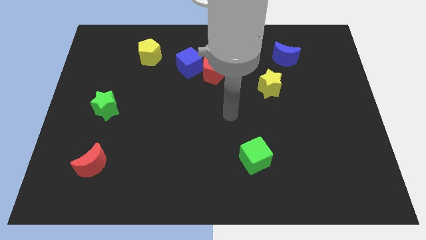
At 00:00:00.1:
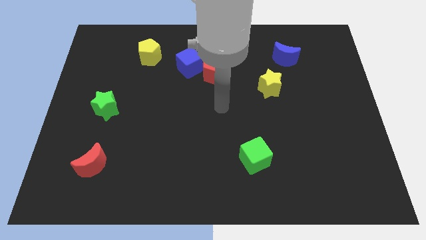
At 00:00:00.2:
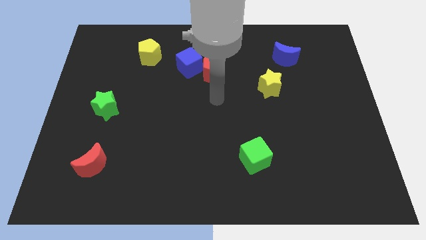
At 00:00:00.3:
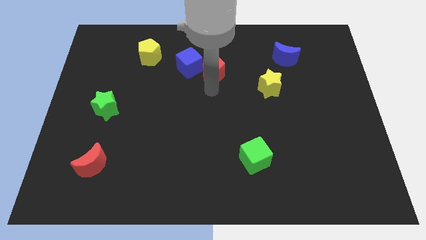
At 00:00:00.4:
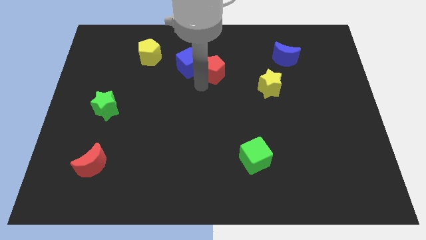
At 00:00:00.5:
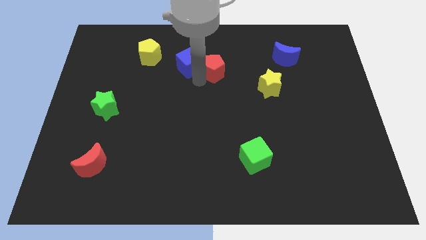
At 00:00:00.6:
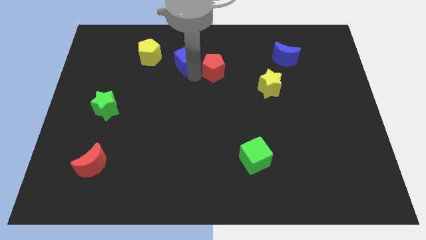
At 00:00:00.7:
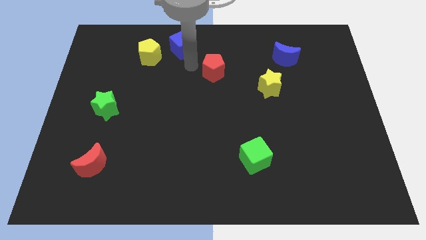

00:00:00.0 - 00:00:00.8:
separate the red pentagon from the blue cube

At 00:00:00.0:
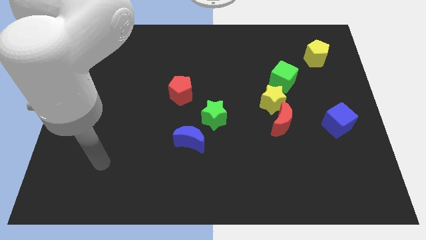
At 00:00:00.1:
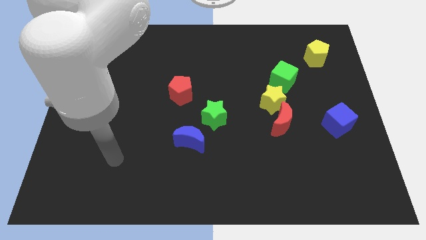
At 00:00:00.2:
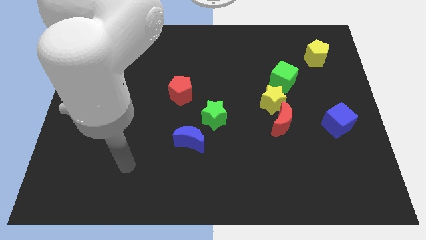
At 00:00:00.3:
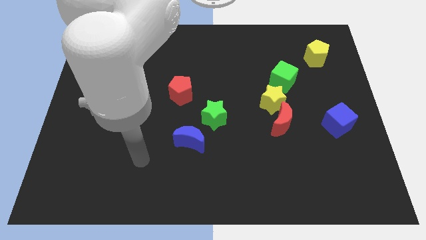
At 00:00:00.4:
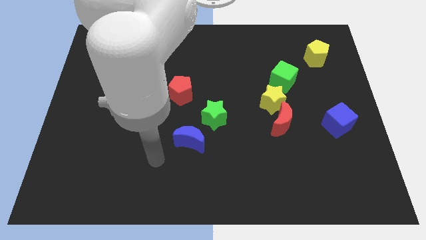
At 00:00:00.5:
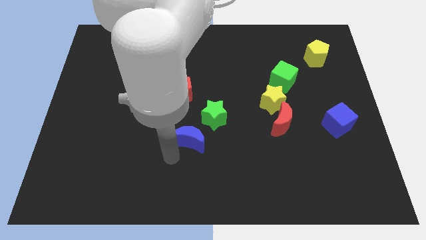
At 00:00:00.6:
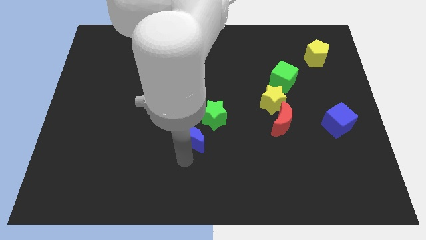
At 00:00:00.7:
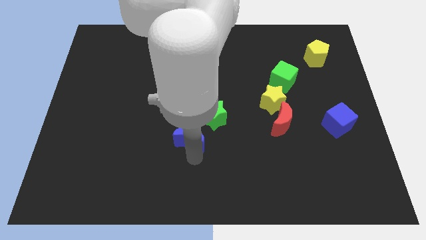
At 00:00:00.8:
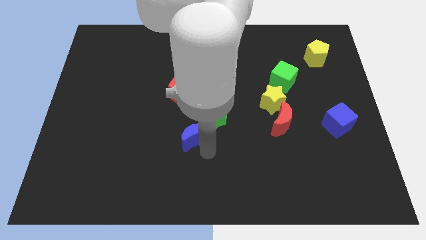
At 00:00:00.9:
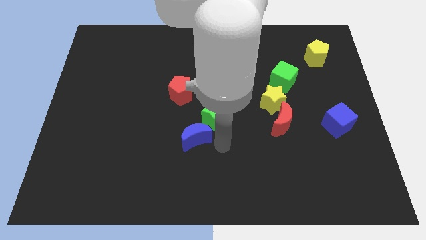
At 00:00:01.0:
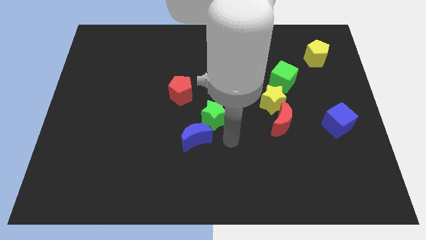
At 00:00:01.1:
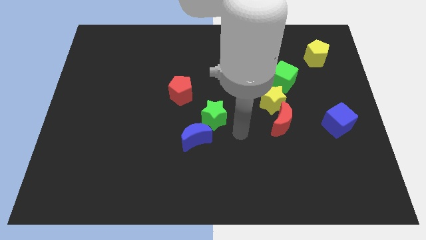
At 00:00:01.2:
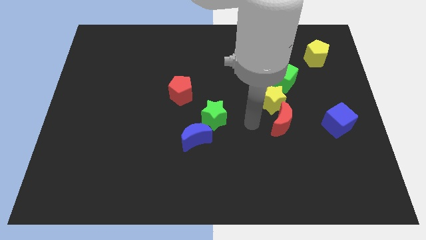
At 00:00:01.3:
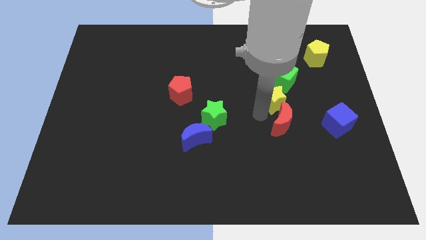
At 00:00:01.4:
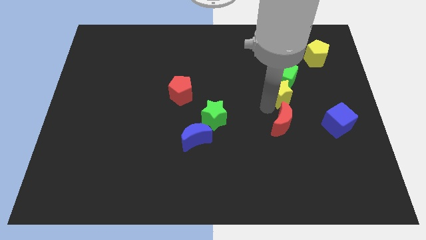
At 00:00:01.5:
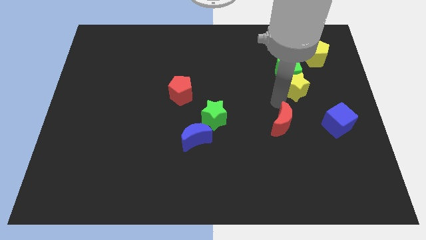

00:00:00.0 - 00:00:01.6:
separate the red moon from the yellow star

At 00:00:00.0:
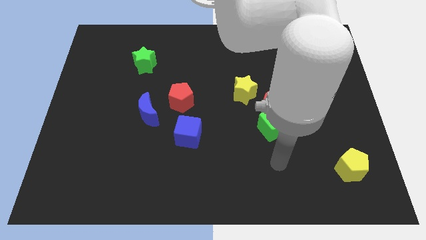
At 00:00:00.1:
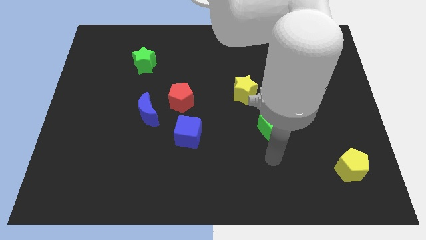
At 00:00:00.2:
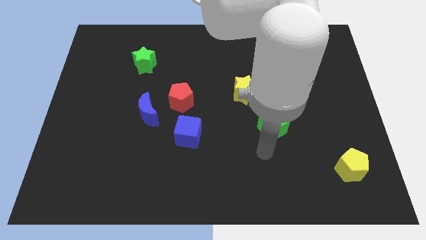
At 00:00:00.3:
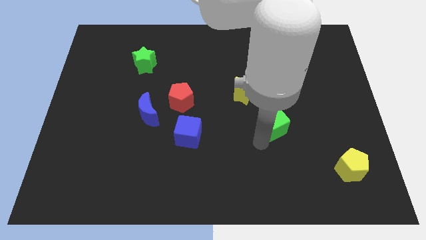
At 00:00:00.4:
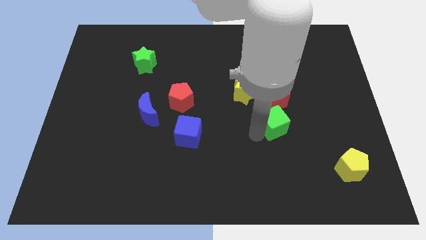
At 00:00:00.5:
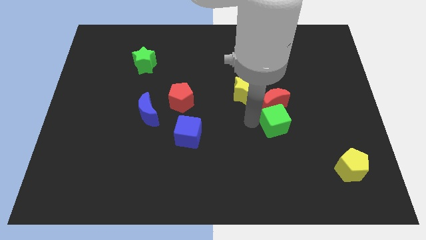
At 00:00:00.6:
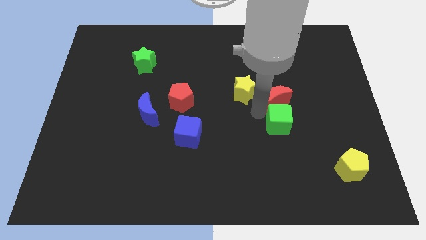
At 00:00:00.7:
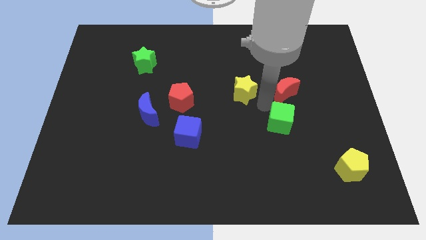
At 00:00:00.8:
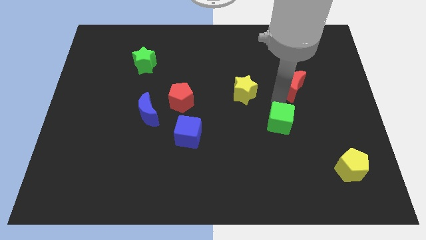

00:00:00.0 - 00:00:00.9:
separate the green cube from the red moon

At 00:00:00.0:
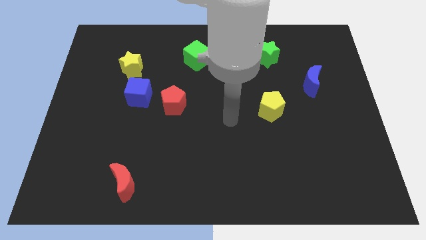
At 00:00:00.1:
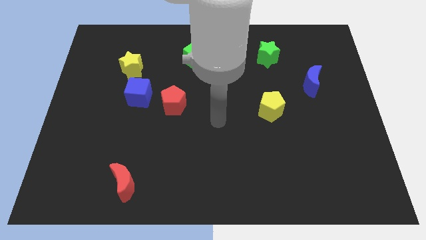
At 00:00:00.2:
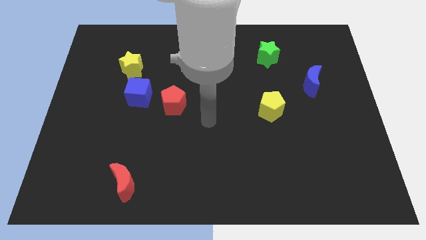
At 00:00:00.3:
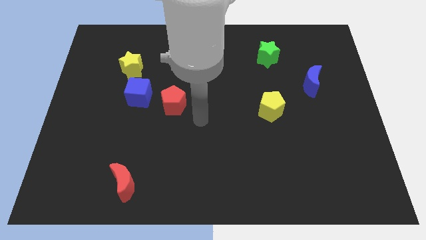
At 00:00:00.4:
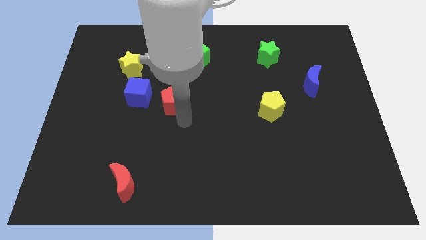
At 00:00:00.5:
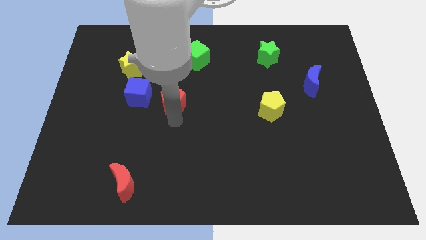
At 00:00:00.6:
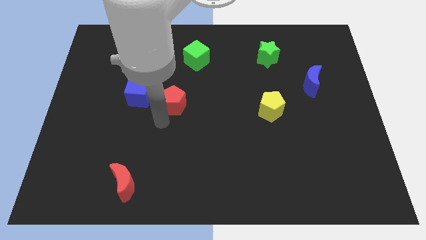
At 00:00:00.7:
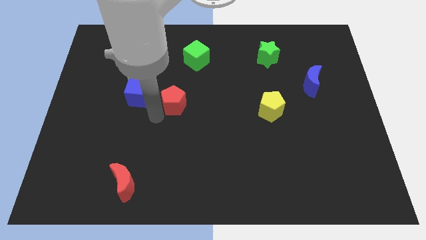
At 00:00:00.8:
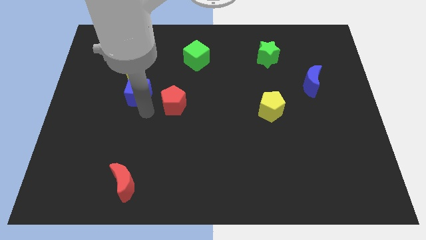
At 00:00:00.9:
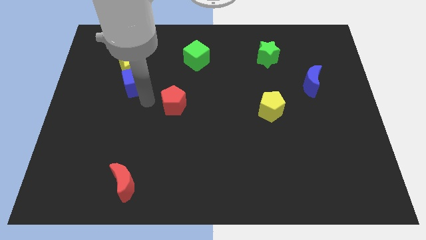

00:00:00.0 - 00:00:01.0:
pull the red pentagon apart from the blue cube

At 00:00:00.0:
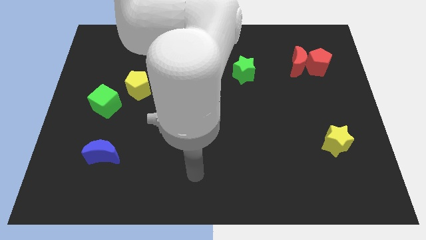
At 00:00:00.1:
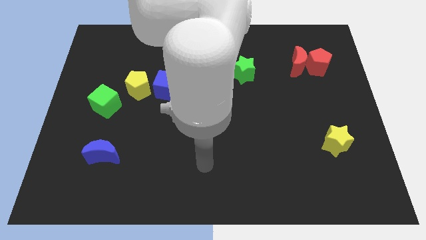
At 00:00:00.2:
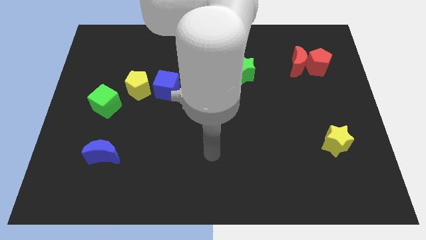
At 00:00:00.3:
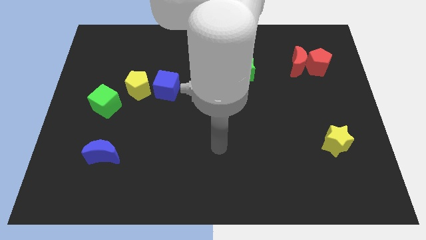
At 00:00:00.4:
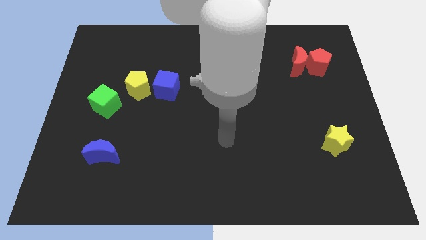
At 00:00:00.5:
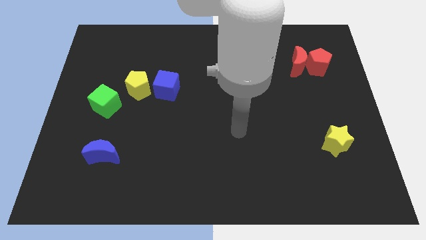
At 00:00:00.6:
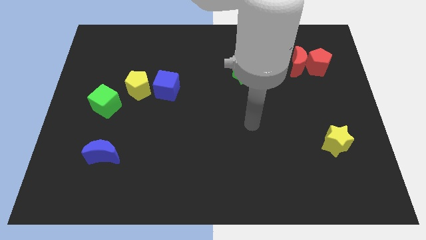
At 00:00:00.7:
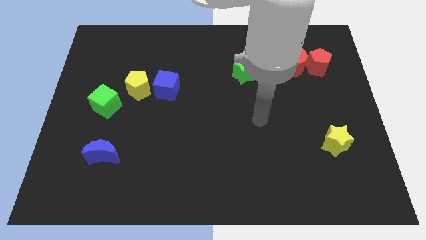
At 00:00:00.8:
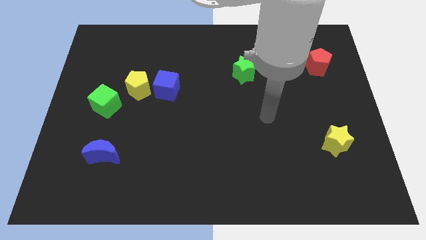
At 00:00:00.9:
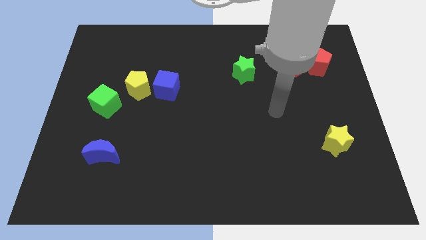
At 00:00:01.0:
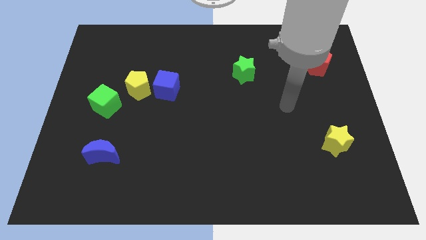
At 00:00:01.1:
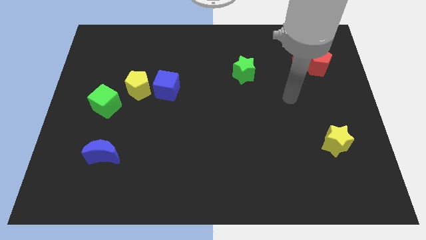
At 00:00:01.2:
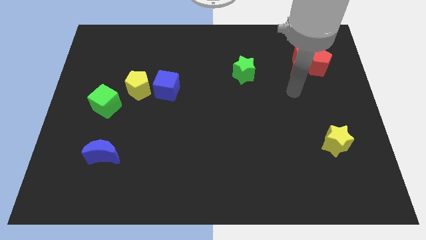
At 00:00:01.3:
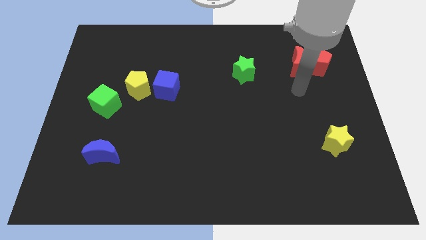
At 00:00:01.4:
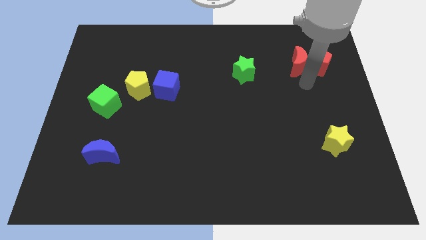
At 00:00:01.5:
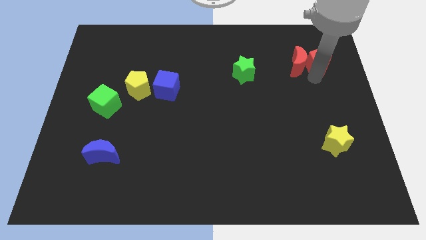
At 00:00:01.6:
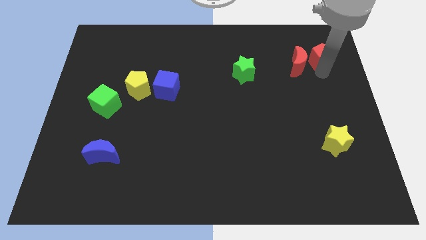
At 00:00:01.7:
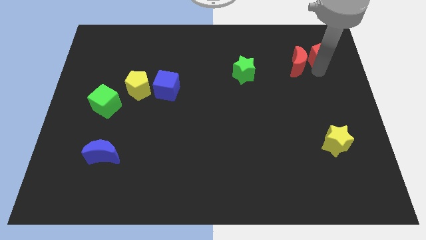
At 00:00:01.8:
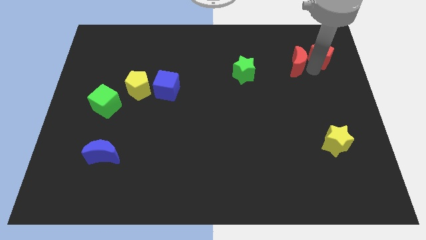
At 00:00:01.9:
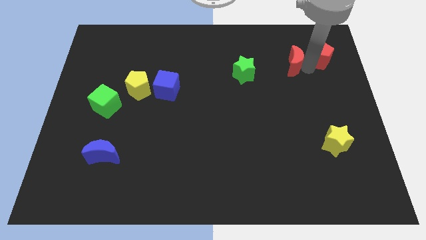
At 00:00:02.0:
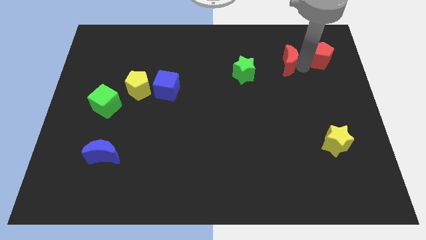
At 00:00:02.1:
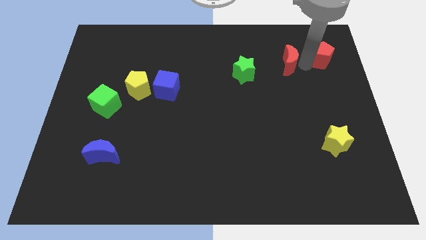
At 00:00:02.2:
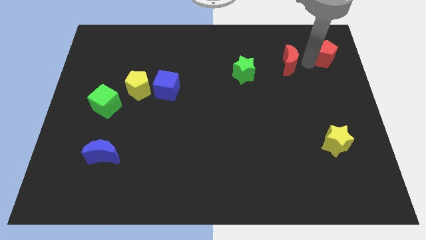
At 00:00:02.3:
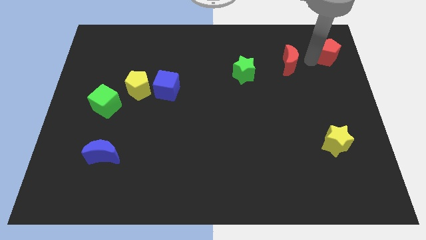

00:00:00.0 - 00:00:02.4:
pull the red moon apart from the red pentagon

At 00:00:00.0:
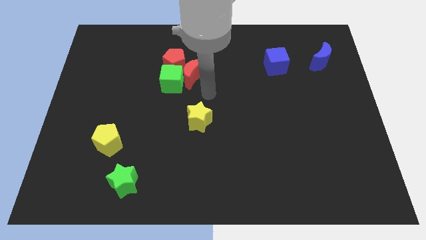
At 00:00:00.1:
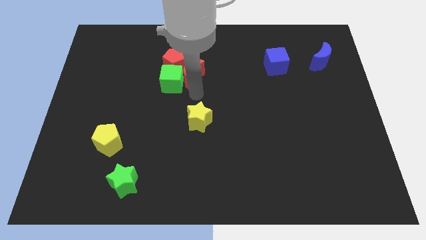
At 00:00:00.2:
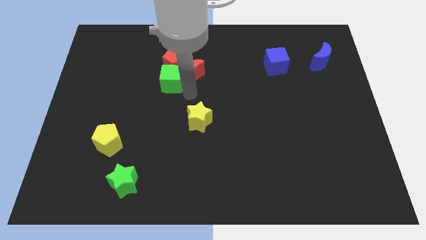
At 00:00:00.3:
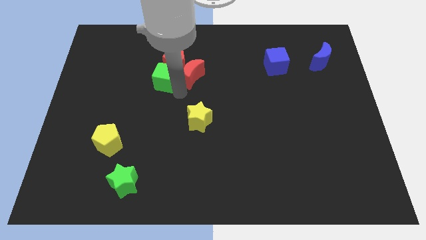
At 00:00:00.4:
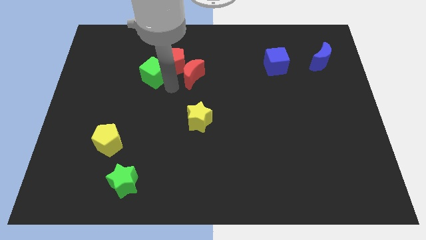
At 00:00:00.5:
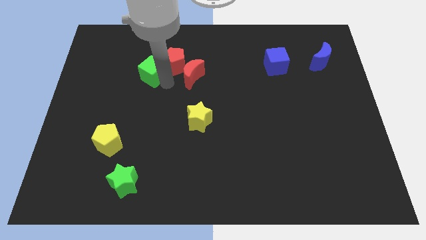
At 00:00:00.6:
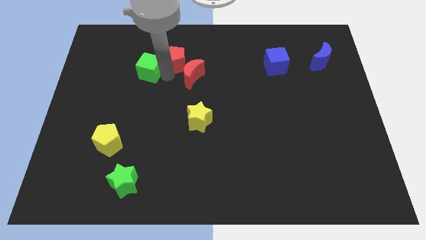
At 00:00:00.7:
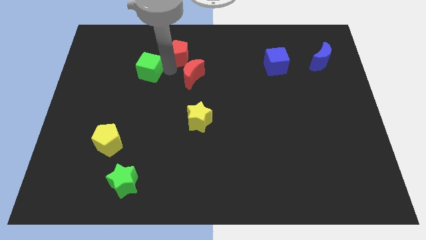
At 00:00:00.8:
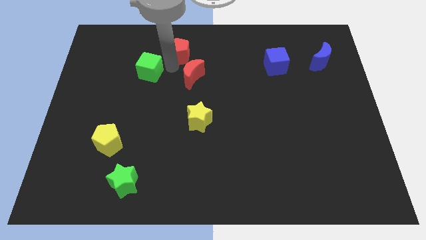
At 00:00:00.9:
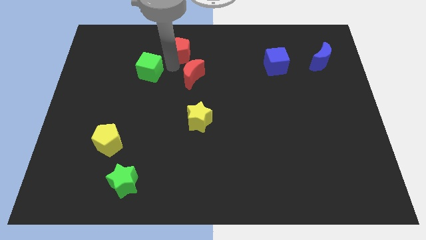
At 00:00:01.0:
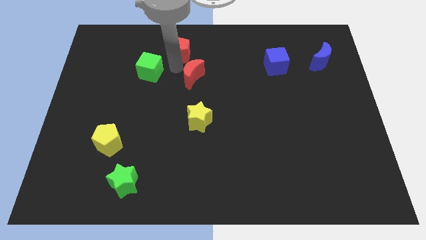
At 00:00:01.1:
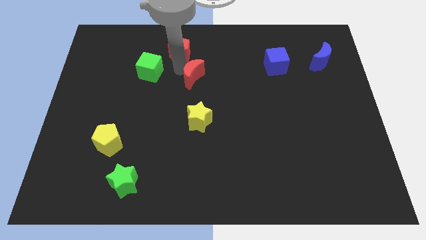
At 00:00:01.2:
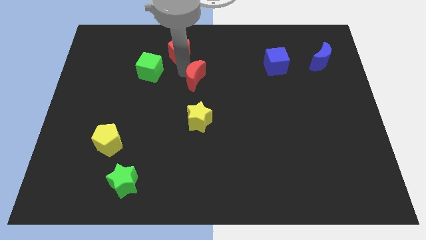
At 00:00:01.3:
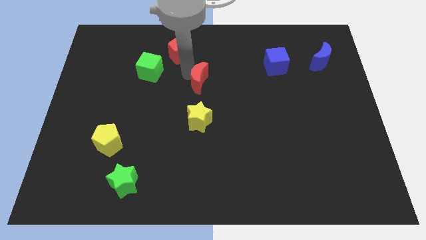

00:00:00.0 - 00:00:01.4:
separate the red moon from the green cube and red pentagon

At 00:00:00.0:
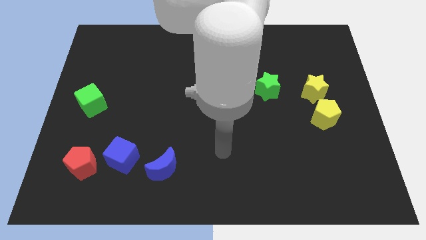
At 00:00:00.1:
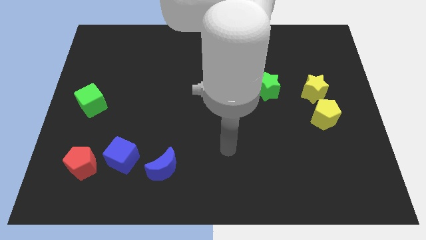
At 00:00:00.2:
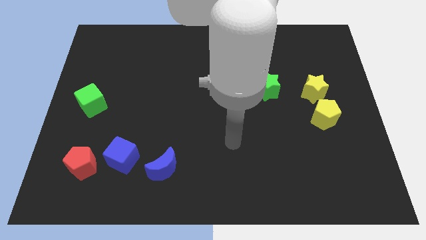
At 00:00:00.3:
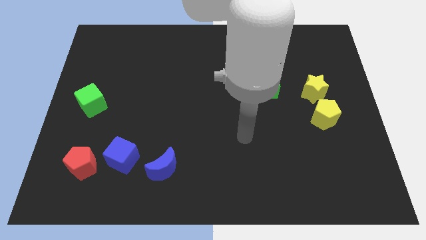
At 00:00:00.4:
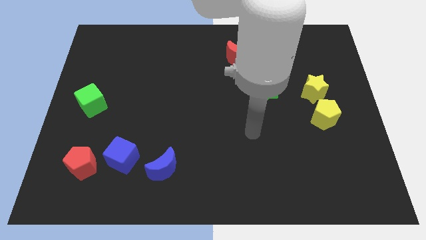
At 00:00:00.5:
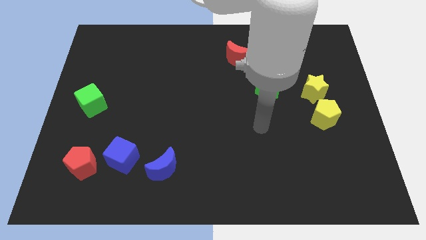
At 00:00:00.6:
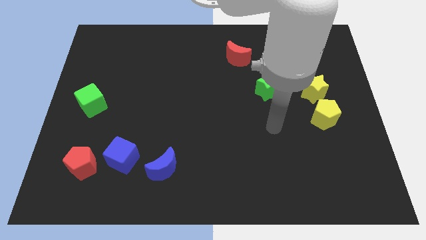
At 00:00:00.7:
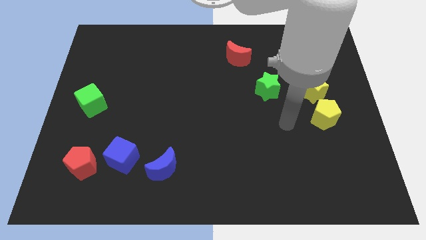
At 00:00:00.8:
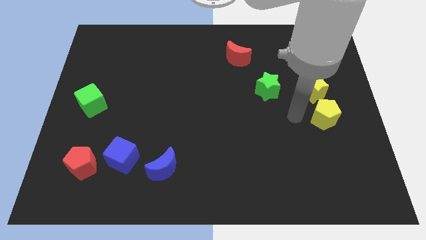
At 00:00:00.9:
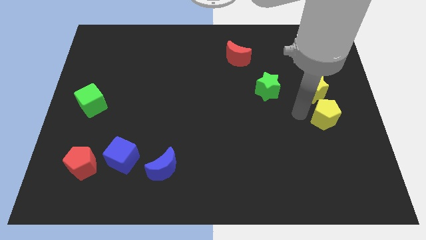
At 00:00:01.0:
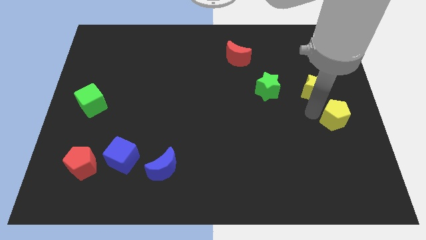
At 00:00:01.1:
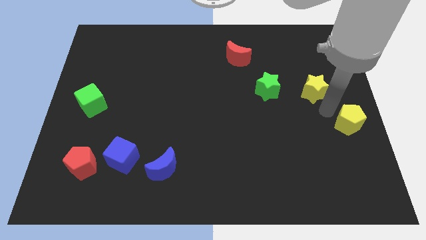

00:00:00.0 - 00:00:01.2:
pull the yellow star apart from the yellow pentagon
